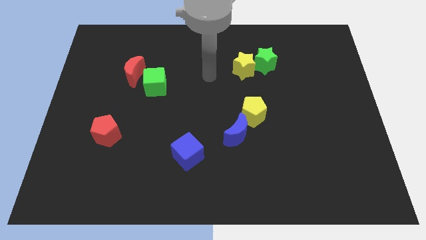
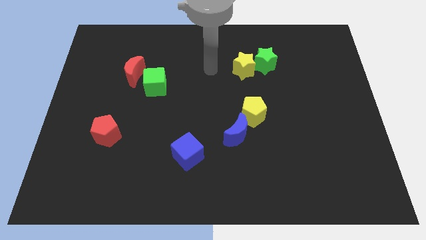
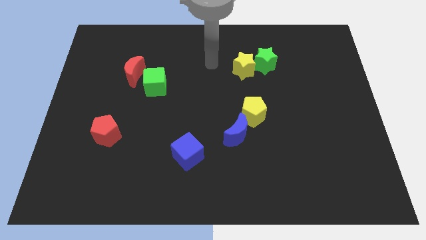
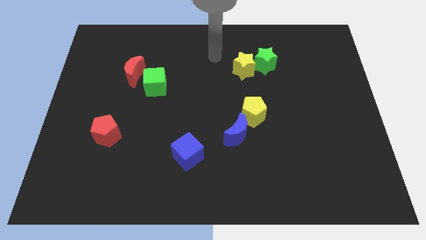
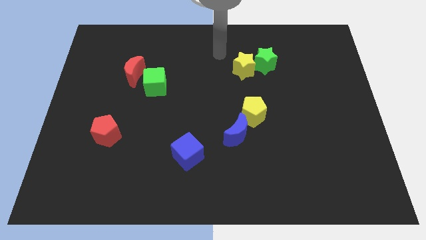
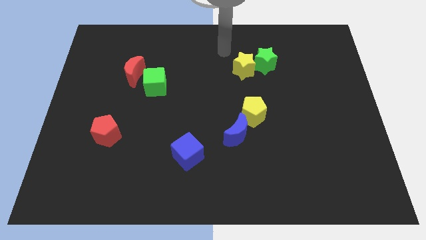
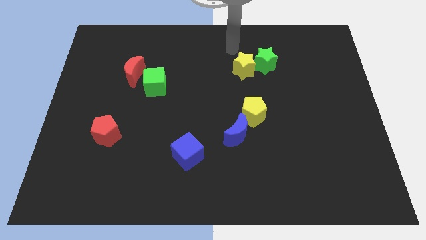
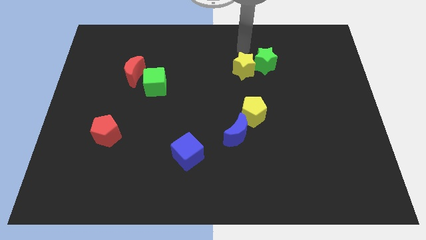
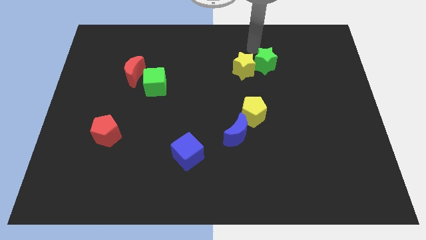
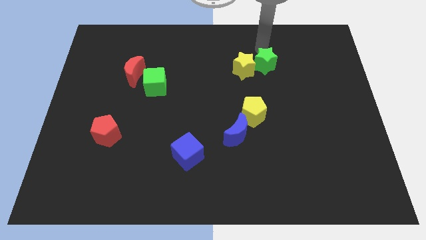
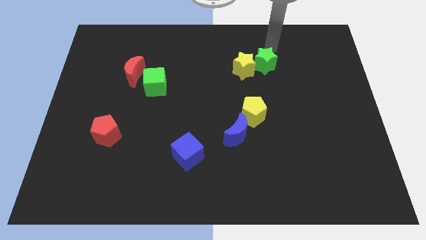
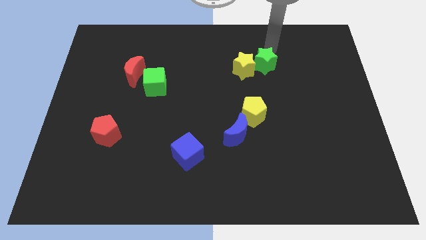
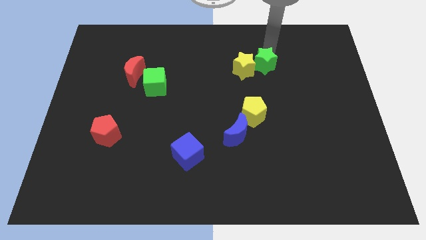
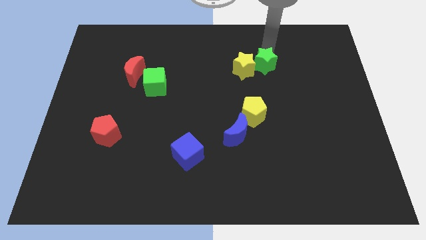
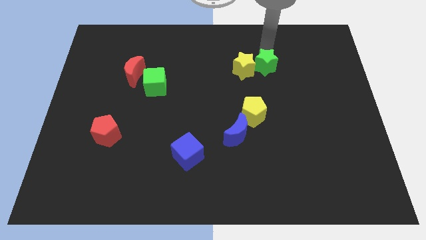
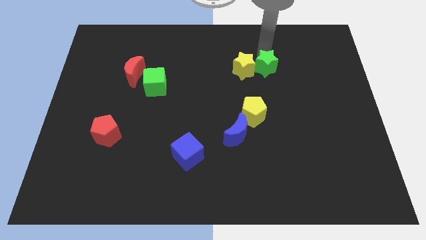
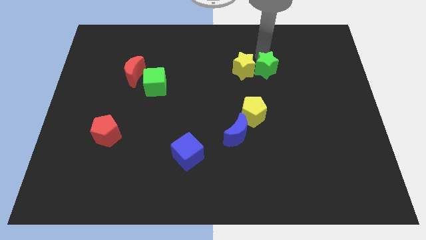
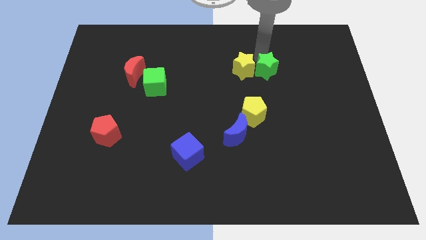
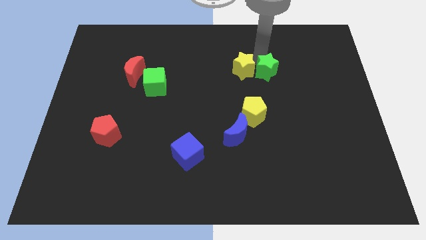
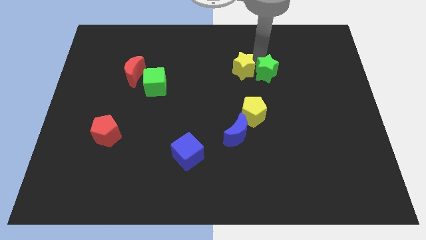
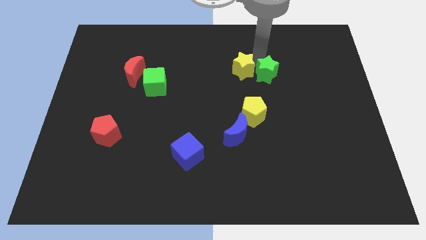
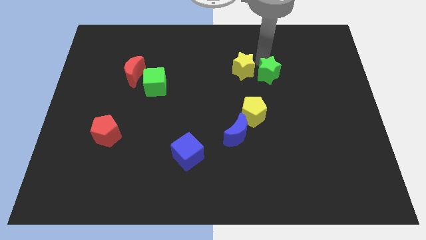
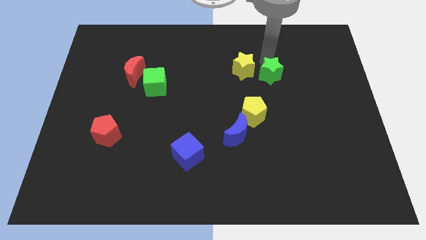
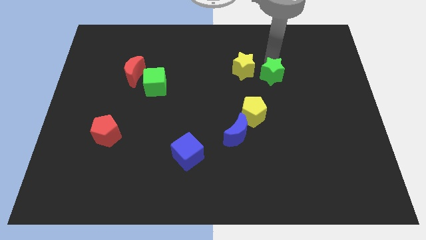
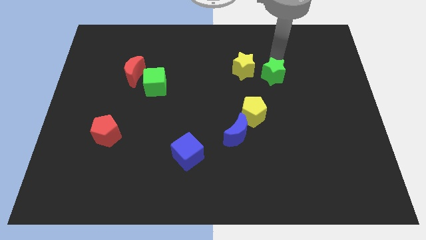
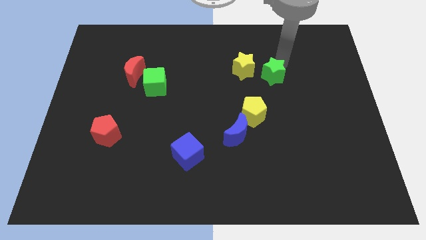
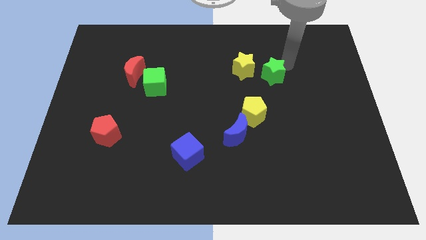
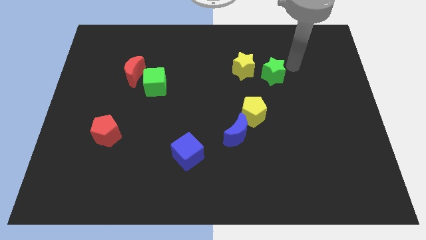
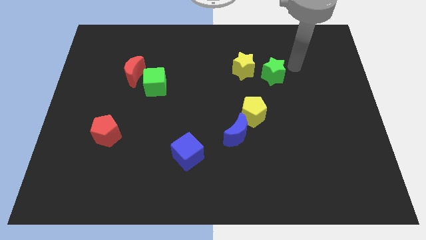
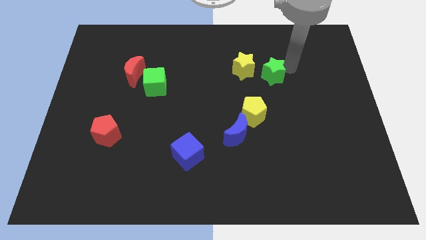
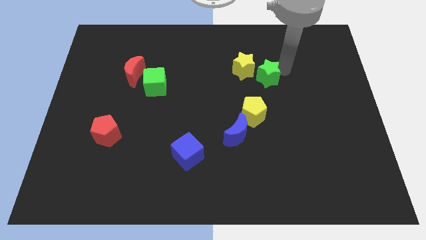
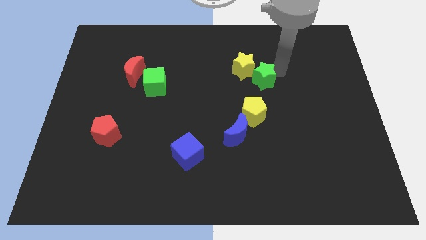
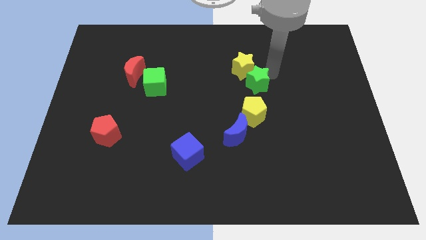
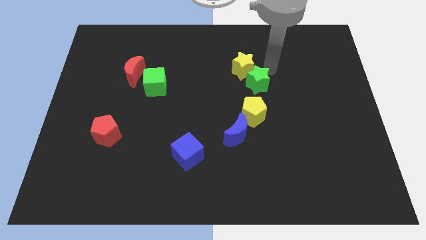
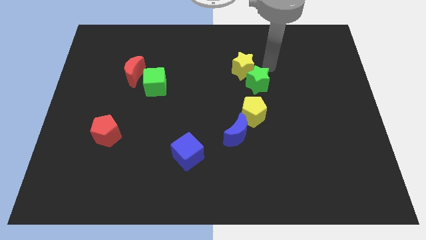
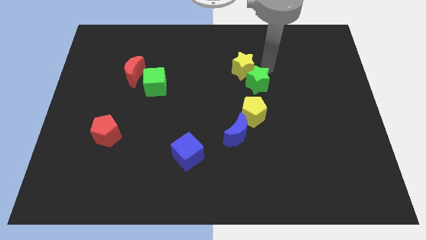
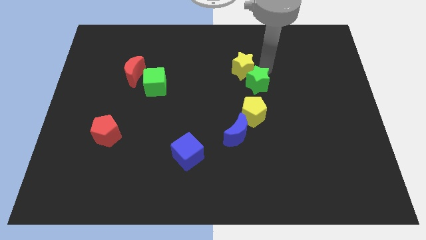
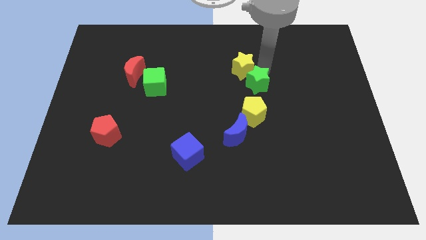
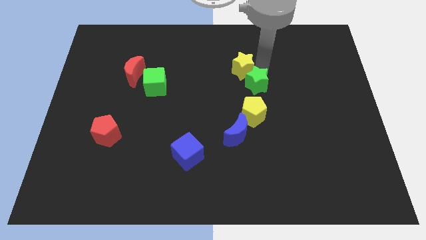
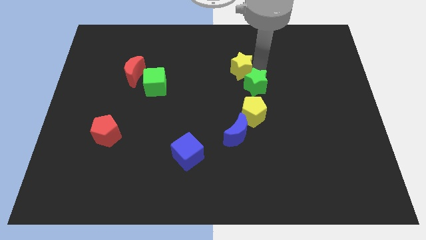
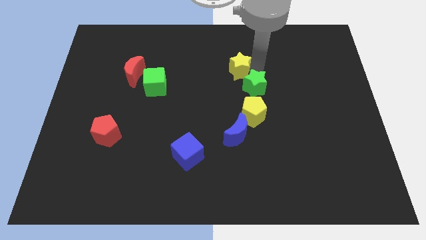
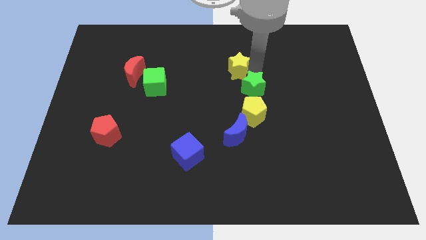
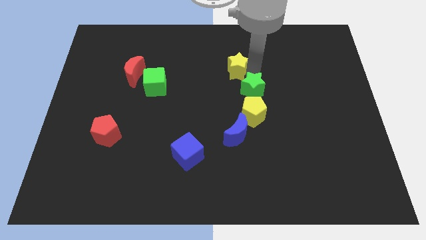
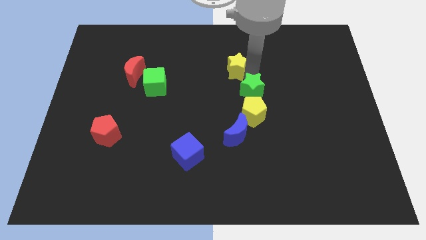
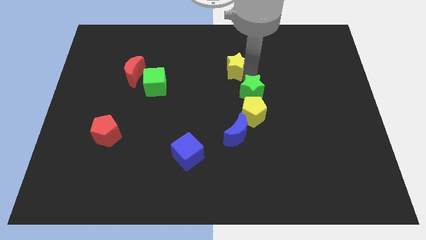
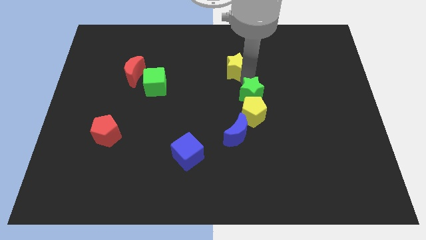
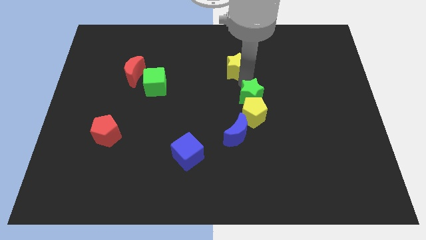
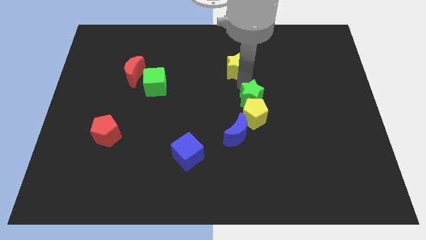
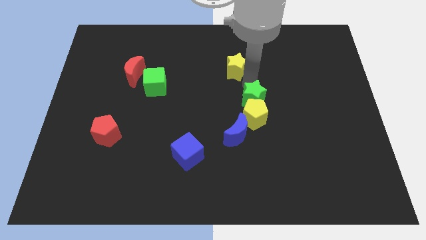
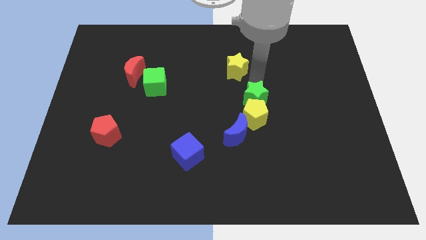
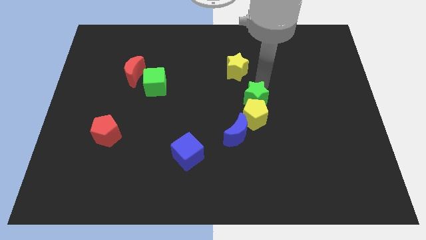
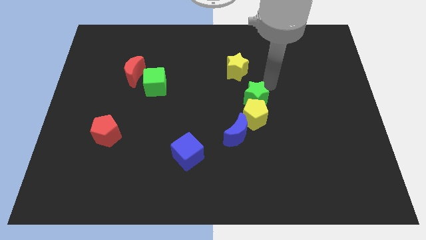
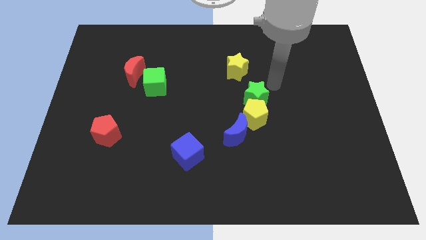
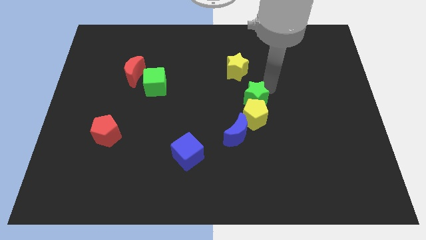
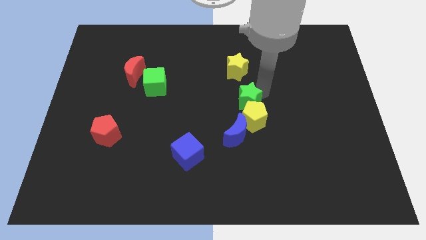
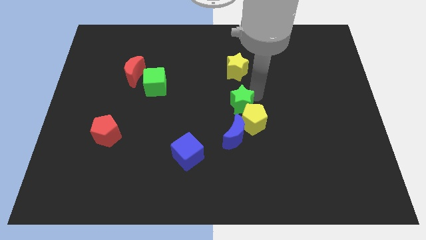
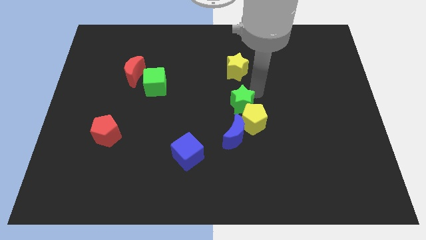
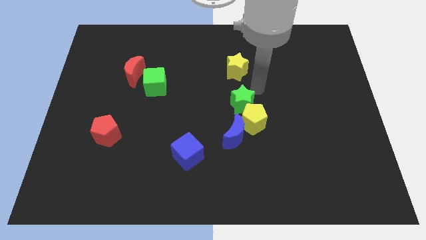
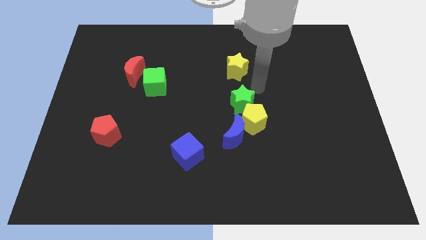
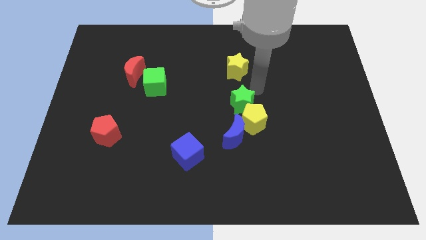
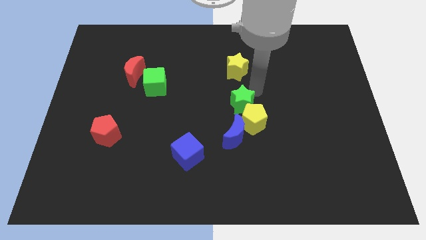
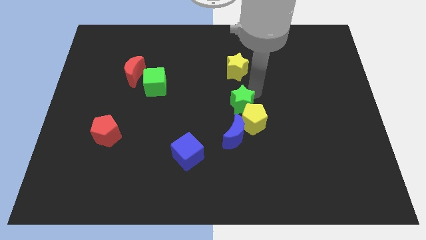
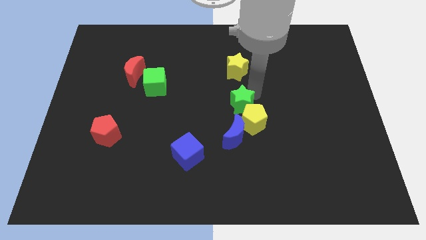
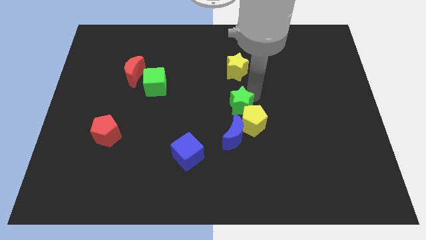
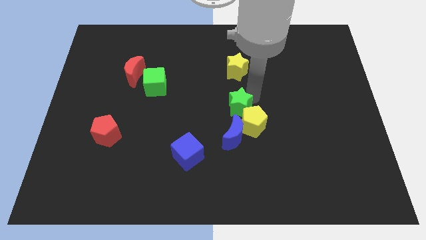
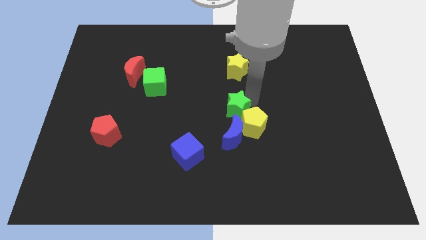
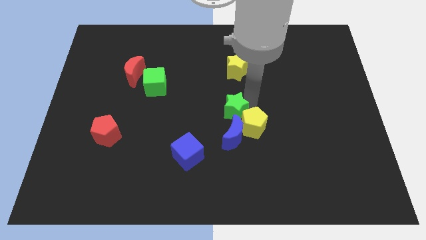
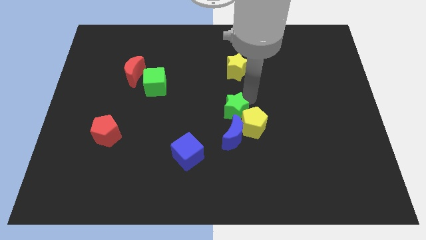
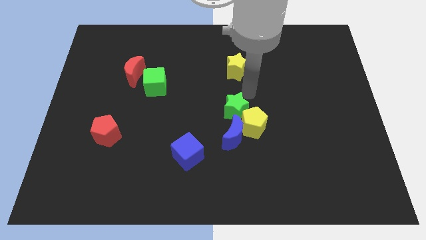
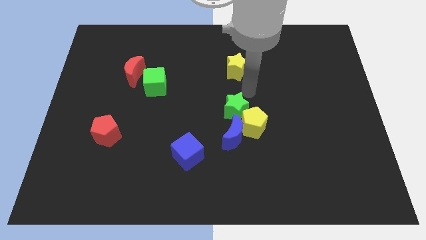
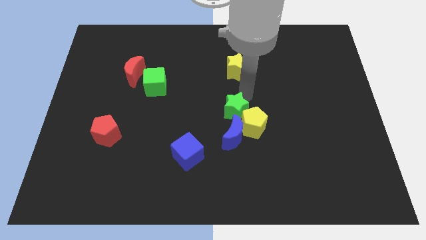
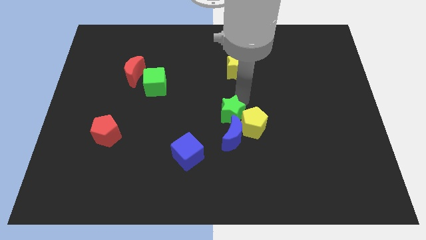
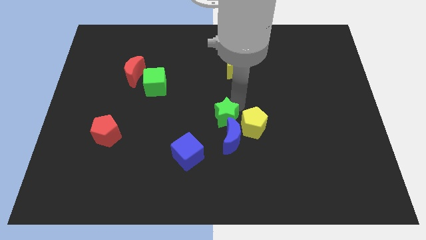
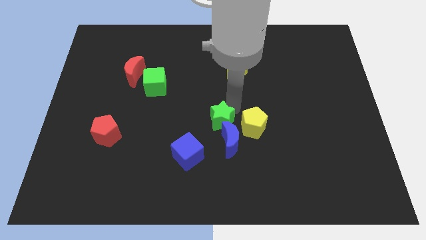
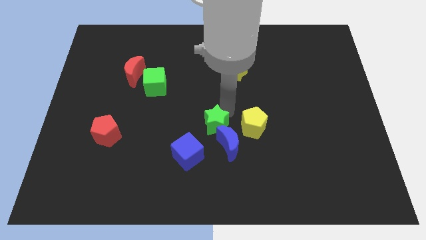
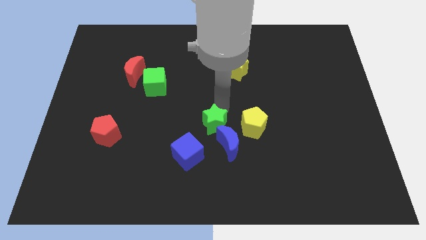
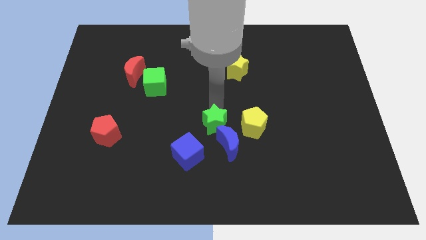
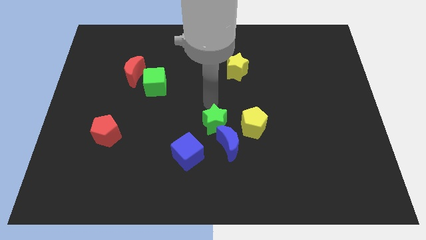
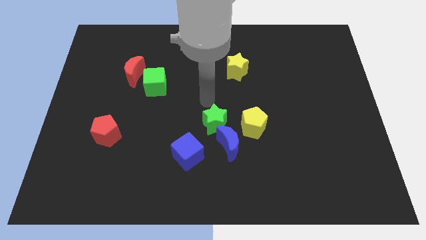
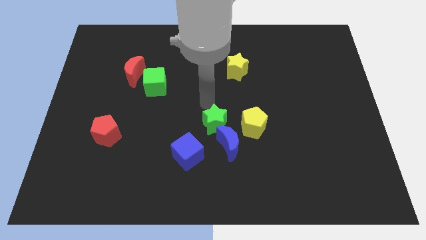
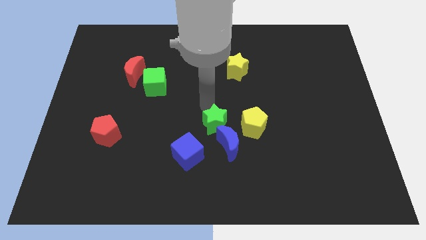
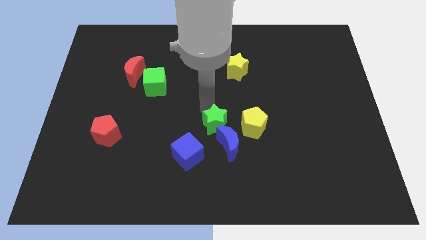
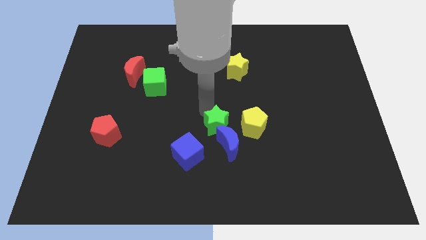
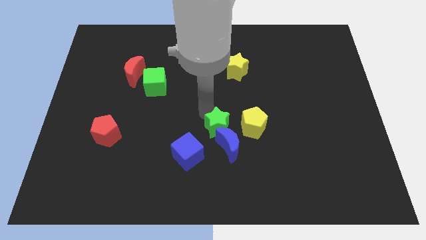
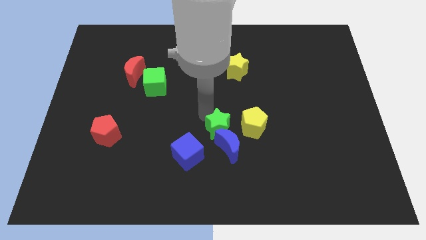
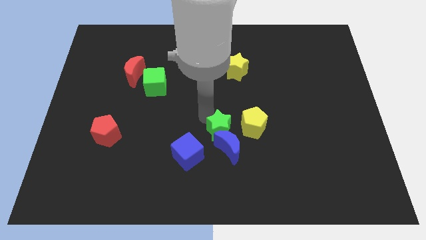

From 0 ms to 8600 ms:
put the green star to the bottom left of the yellow pentagon
